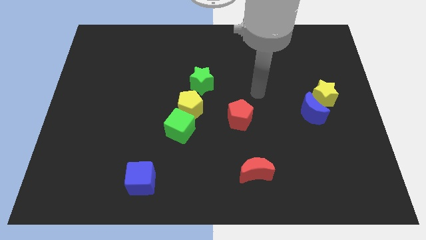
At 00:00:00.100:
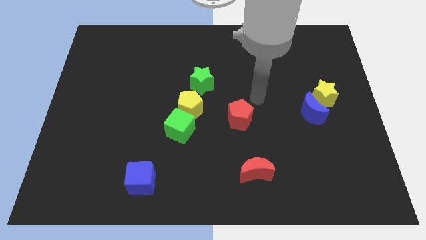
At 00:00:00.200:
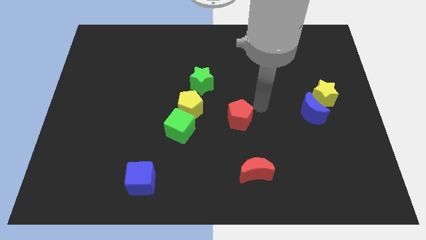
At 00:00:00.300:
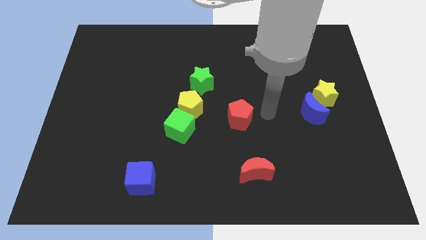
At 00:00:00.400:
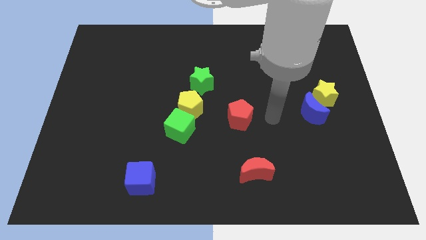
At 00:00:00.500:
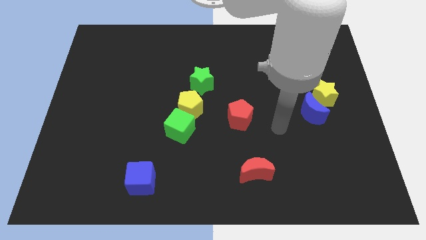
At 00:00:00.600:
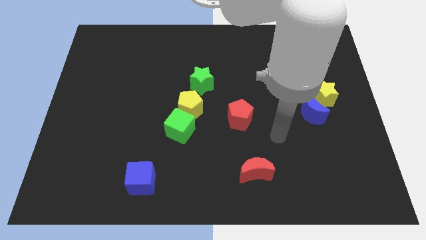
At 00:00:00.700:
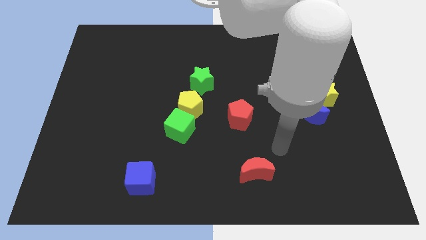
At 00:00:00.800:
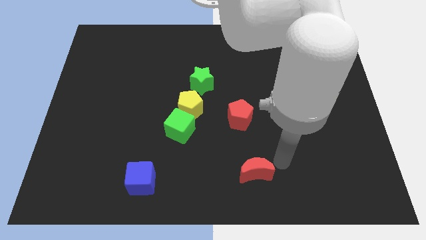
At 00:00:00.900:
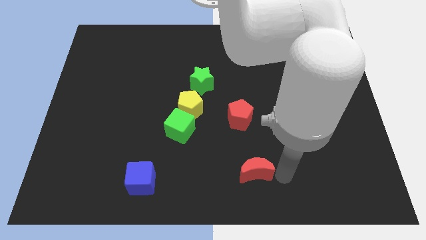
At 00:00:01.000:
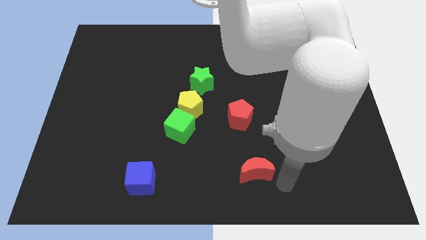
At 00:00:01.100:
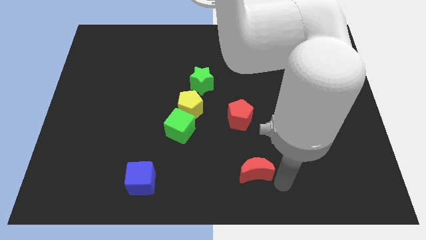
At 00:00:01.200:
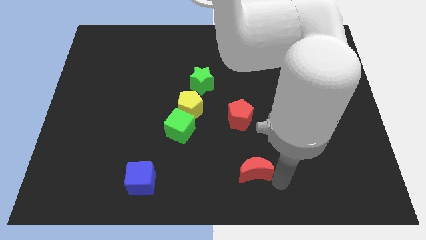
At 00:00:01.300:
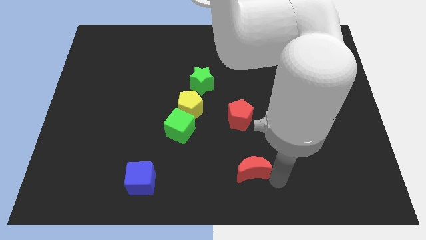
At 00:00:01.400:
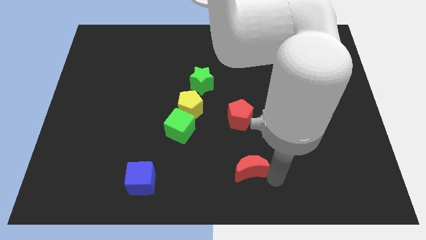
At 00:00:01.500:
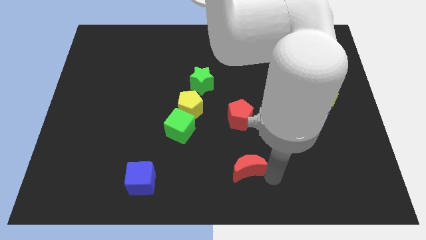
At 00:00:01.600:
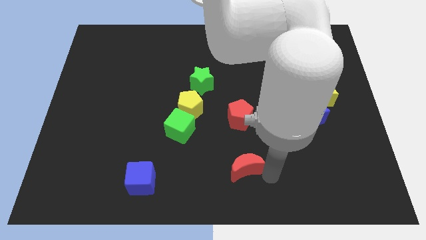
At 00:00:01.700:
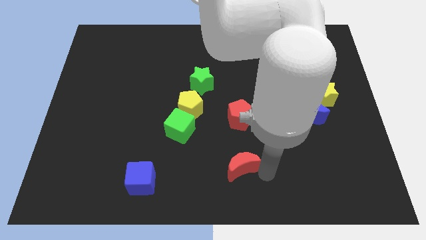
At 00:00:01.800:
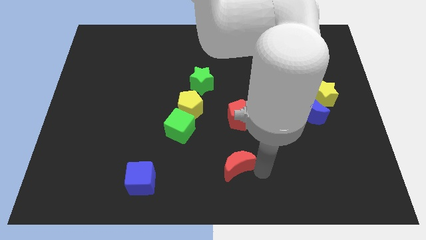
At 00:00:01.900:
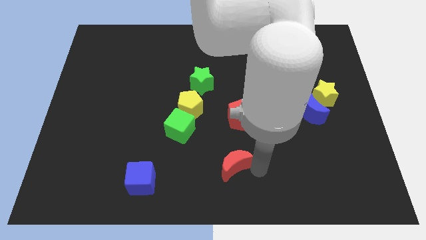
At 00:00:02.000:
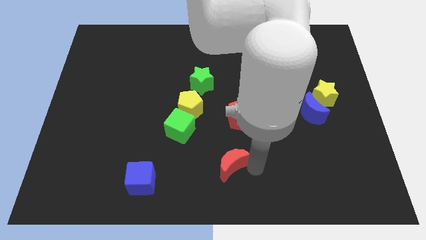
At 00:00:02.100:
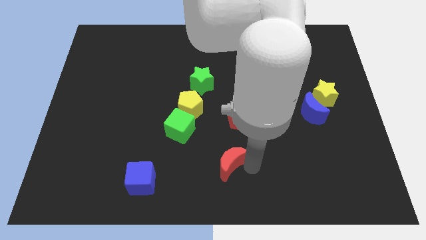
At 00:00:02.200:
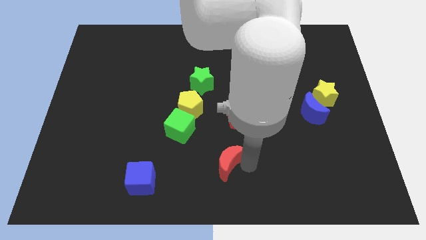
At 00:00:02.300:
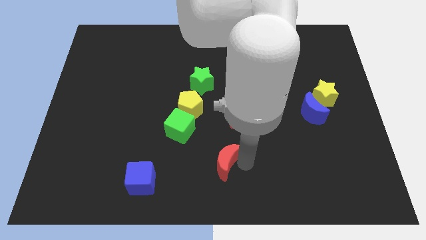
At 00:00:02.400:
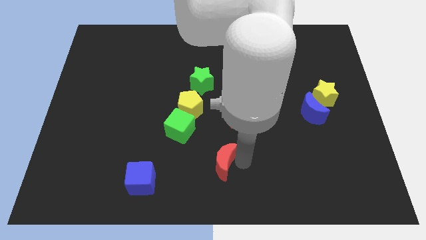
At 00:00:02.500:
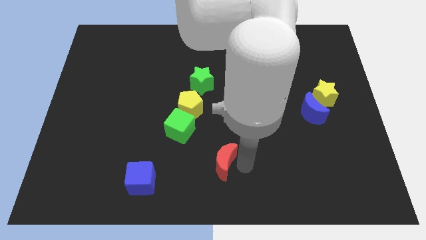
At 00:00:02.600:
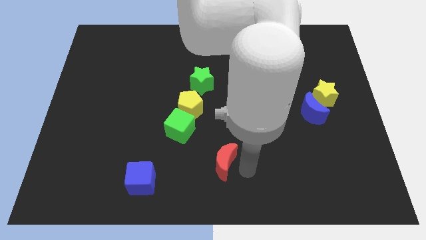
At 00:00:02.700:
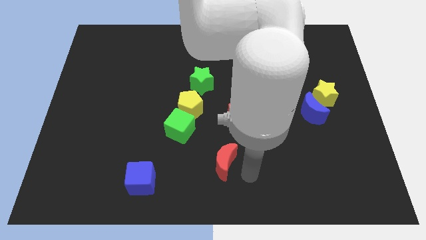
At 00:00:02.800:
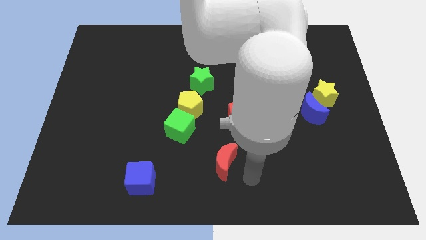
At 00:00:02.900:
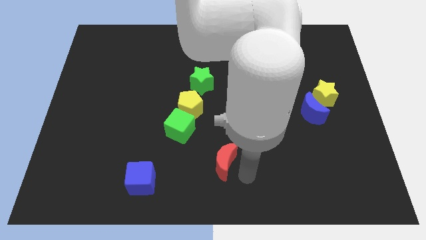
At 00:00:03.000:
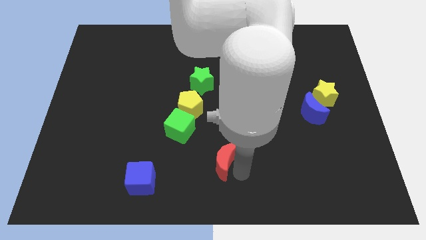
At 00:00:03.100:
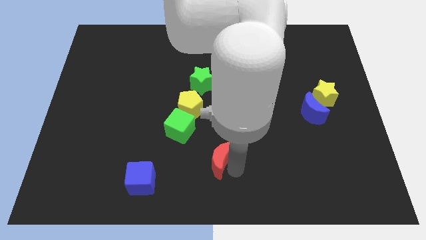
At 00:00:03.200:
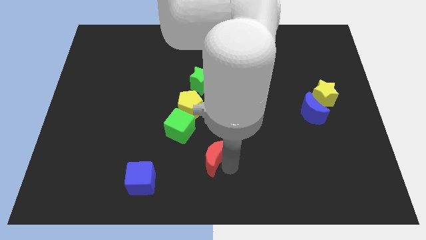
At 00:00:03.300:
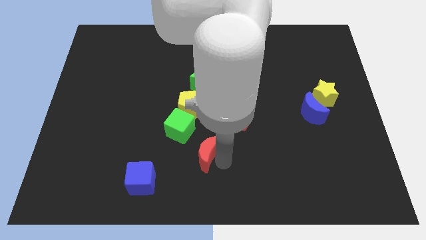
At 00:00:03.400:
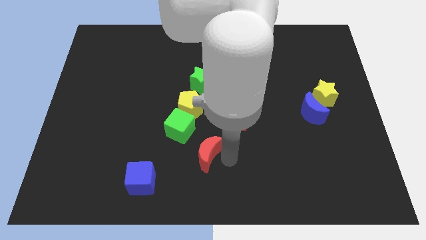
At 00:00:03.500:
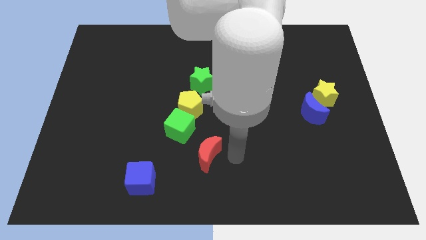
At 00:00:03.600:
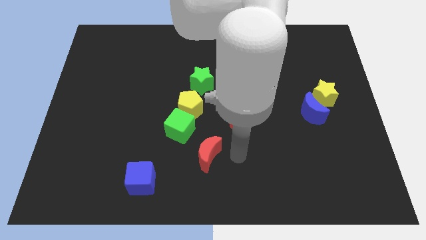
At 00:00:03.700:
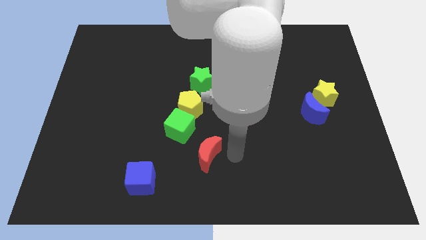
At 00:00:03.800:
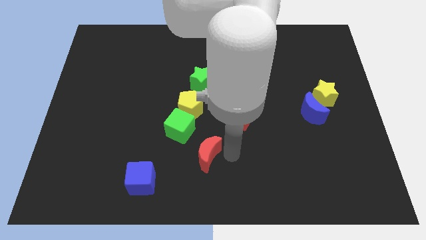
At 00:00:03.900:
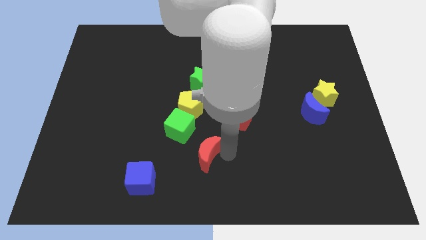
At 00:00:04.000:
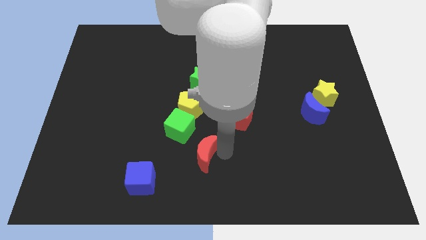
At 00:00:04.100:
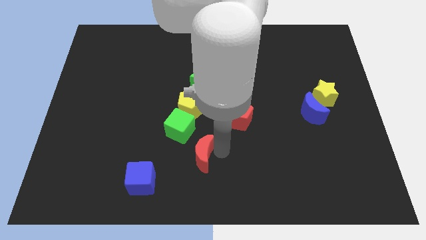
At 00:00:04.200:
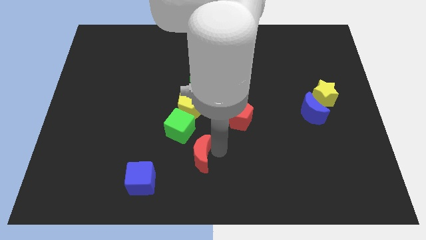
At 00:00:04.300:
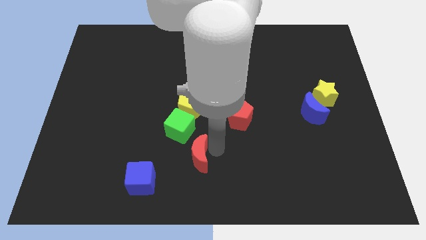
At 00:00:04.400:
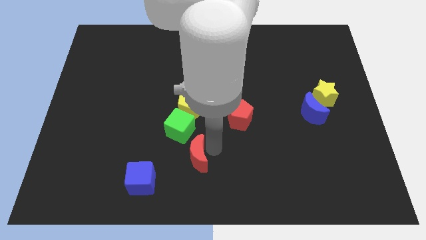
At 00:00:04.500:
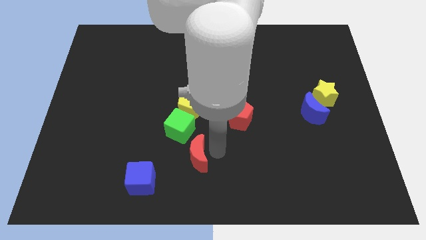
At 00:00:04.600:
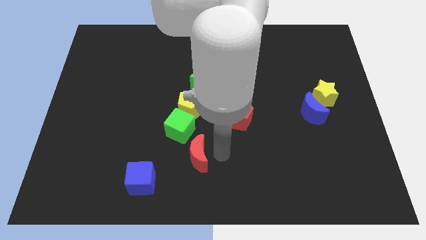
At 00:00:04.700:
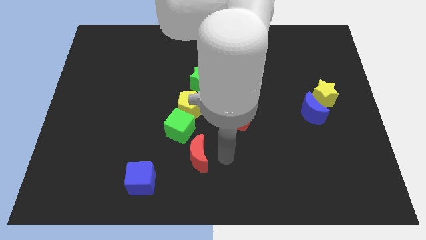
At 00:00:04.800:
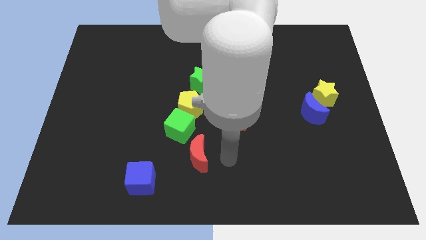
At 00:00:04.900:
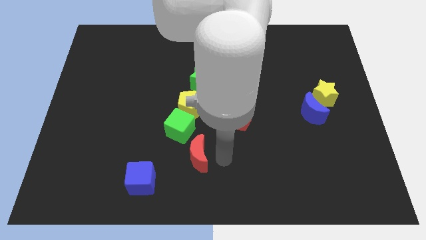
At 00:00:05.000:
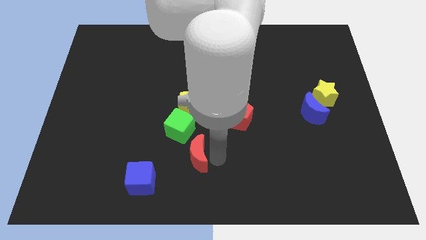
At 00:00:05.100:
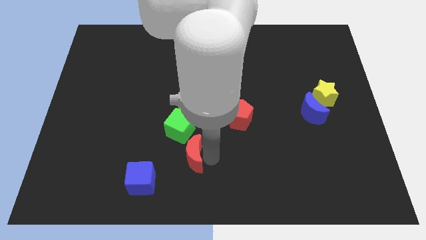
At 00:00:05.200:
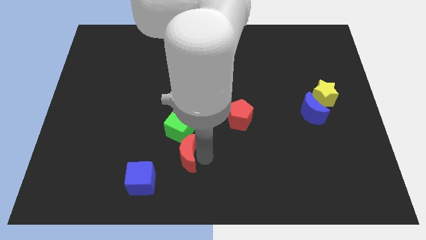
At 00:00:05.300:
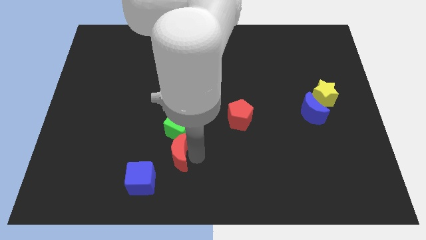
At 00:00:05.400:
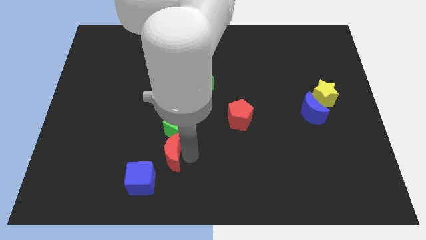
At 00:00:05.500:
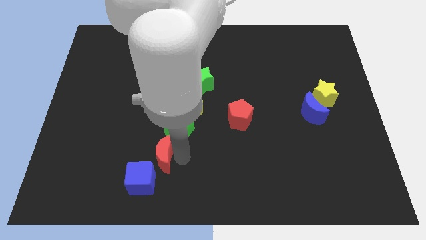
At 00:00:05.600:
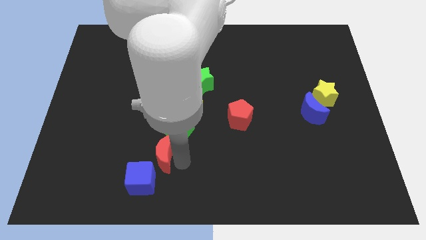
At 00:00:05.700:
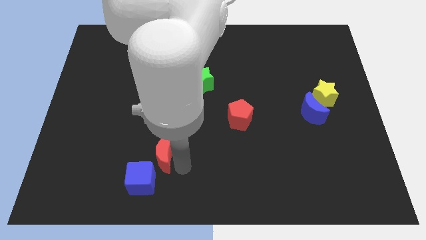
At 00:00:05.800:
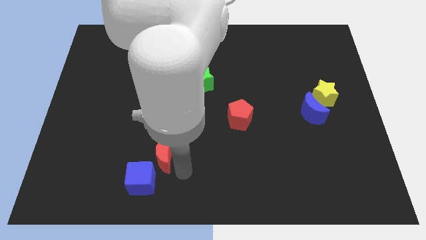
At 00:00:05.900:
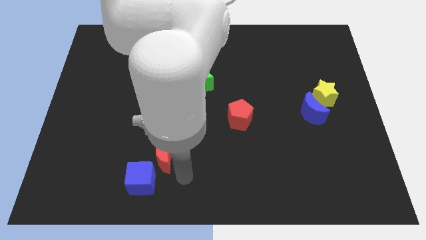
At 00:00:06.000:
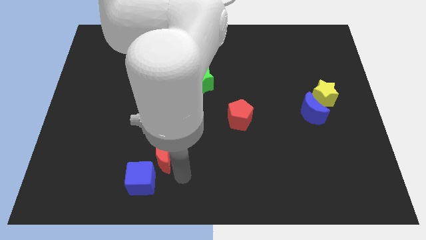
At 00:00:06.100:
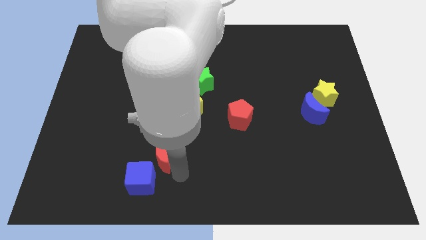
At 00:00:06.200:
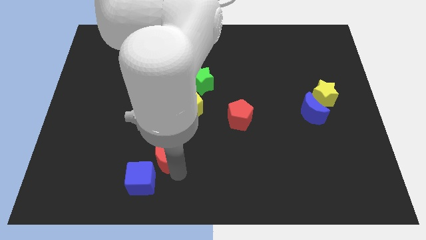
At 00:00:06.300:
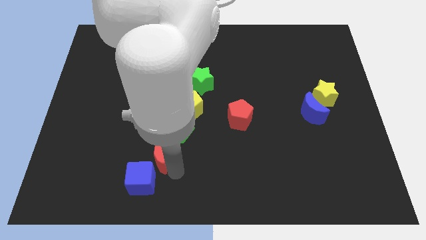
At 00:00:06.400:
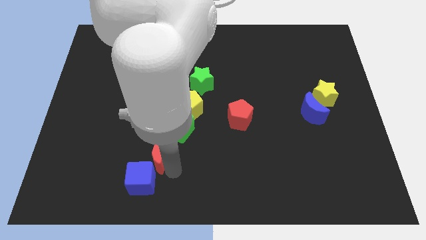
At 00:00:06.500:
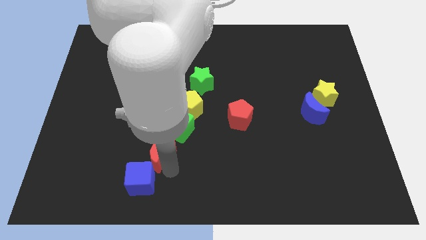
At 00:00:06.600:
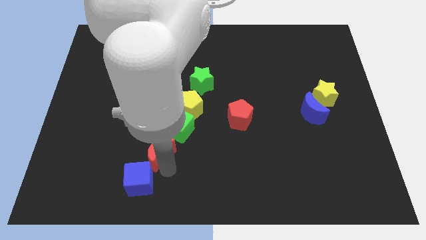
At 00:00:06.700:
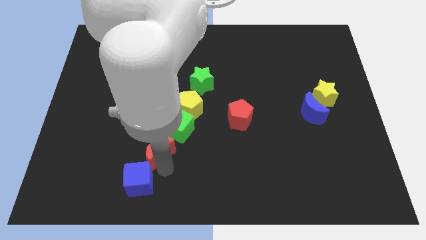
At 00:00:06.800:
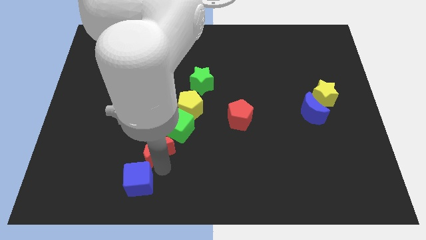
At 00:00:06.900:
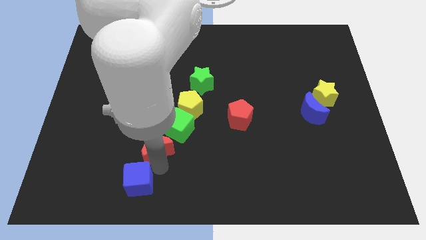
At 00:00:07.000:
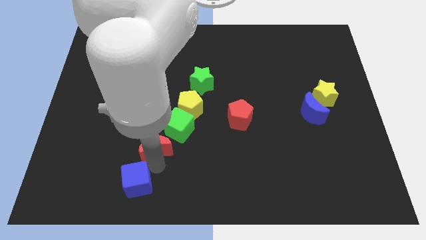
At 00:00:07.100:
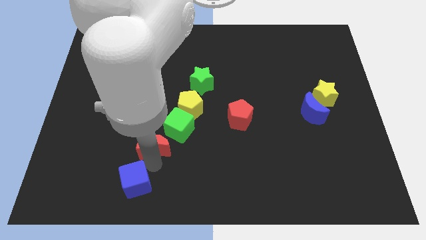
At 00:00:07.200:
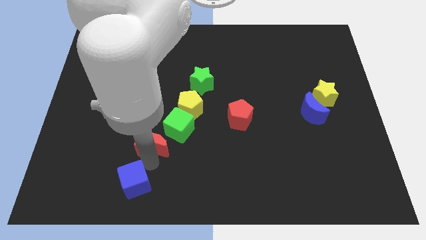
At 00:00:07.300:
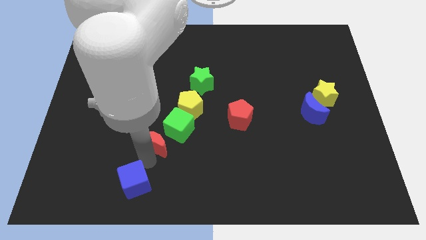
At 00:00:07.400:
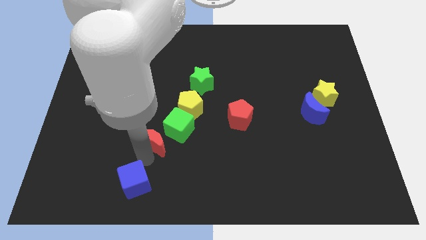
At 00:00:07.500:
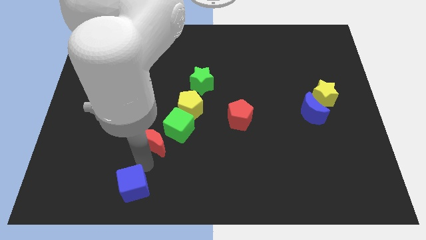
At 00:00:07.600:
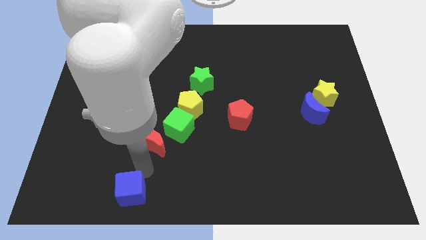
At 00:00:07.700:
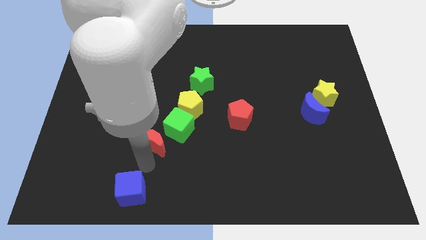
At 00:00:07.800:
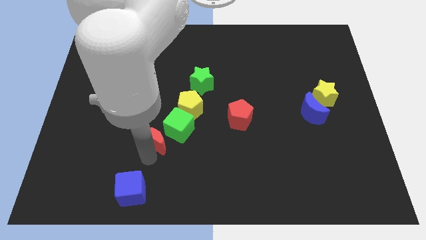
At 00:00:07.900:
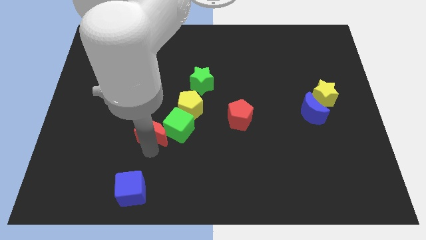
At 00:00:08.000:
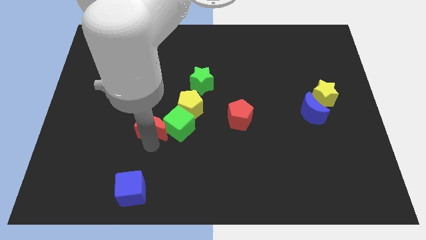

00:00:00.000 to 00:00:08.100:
slide the red moon up and left diagonally
